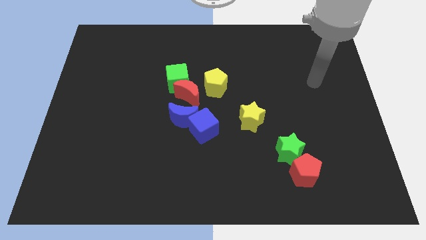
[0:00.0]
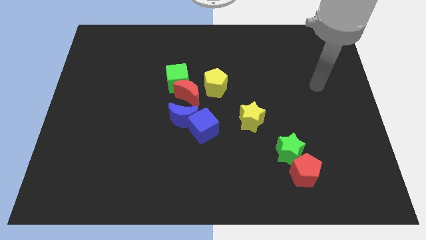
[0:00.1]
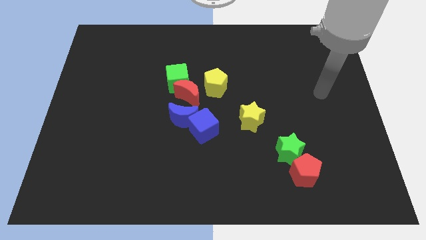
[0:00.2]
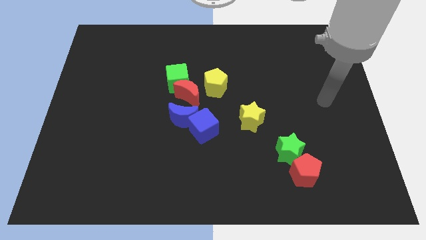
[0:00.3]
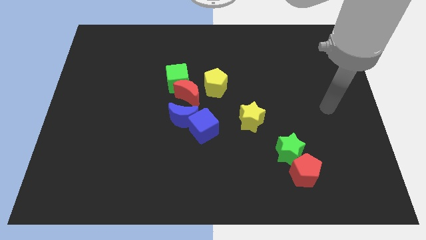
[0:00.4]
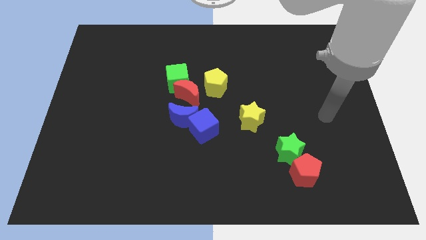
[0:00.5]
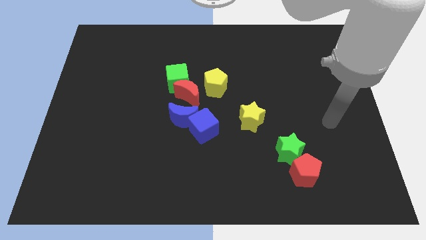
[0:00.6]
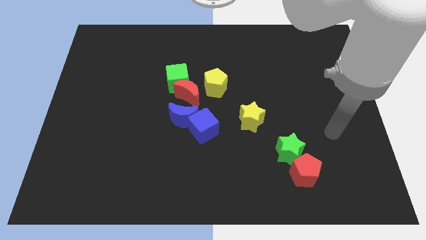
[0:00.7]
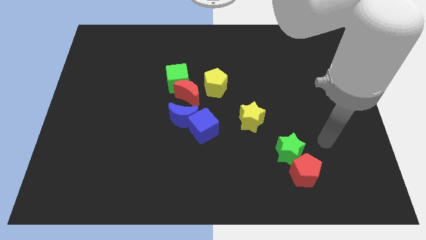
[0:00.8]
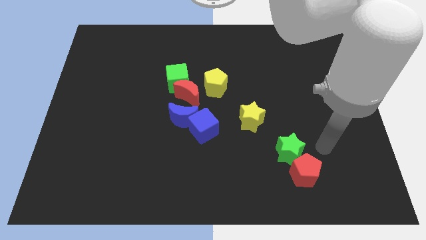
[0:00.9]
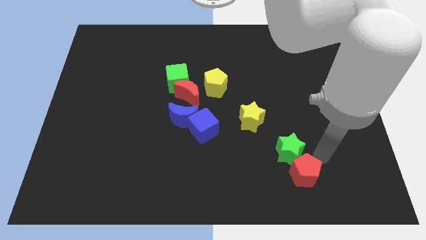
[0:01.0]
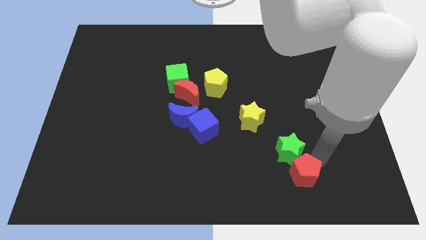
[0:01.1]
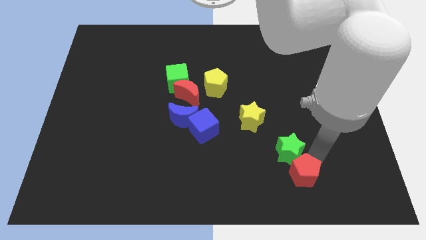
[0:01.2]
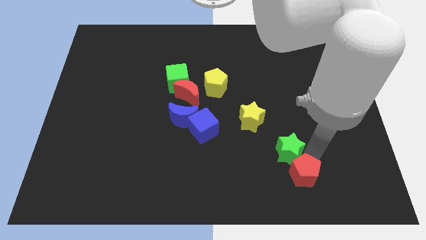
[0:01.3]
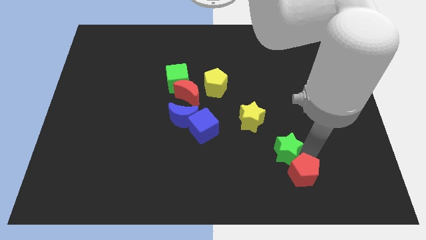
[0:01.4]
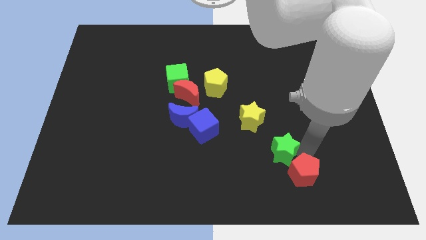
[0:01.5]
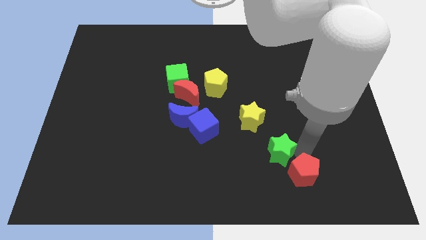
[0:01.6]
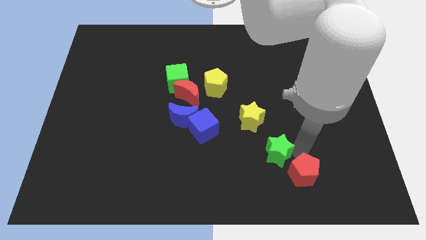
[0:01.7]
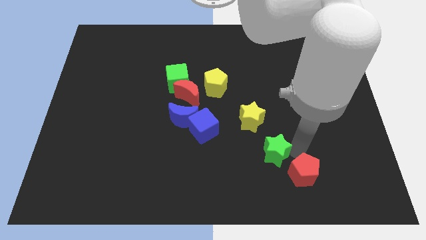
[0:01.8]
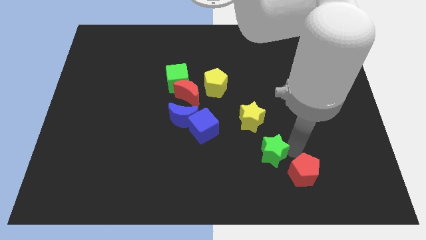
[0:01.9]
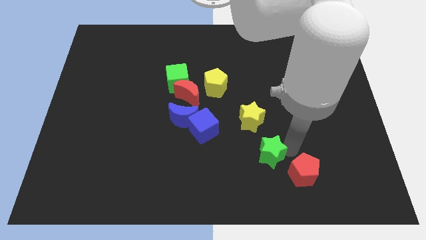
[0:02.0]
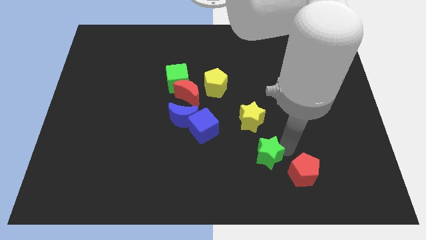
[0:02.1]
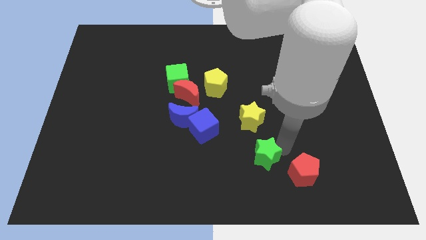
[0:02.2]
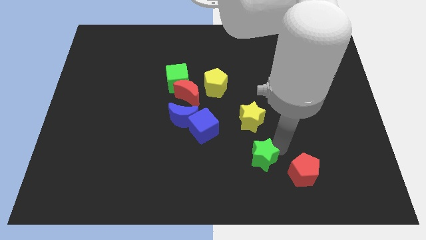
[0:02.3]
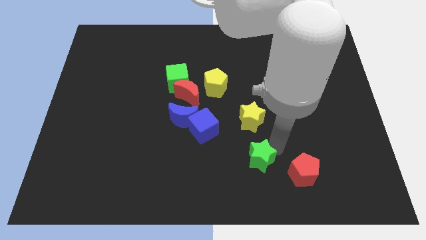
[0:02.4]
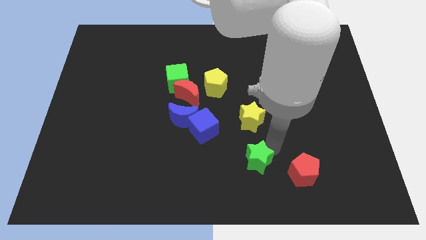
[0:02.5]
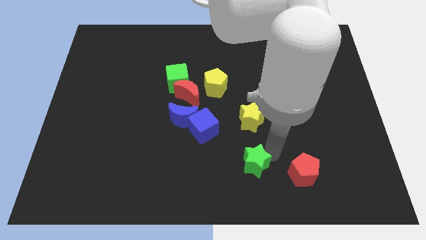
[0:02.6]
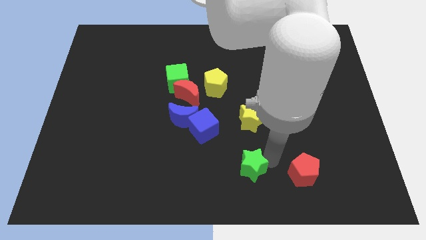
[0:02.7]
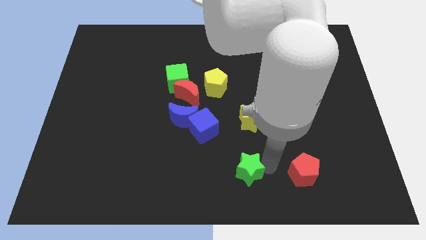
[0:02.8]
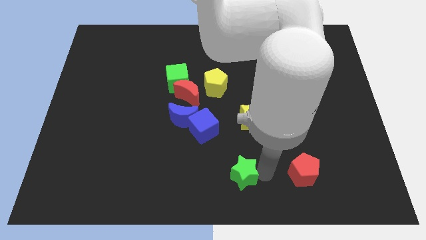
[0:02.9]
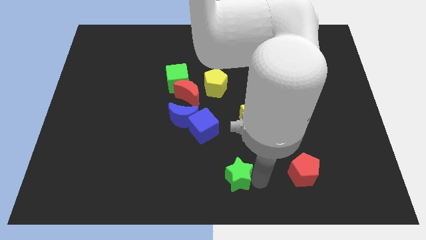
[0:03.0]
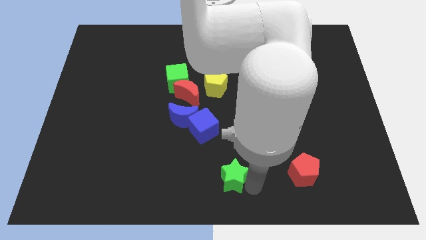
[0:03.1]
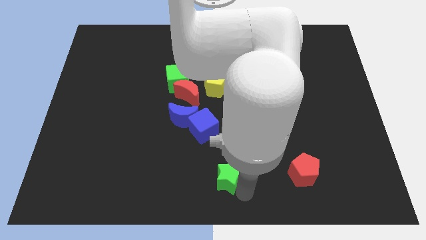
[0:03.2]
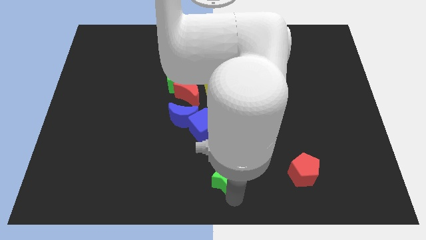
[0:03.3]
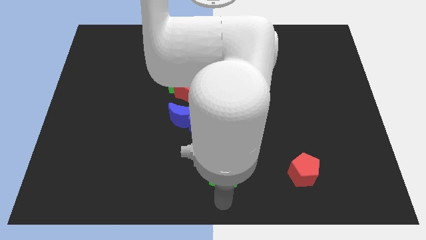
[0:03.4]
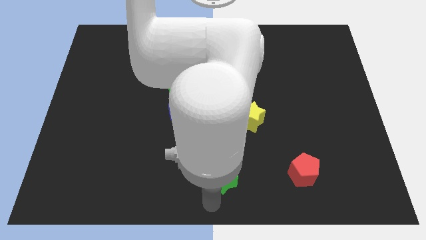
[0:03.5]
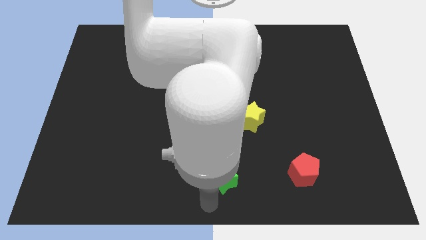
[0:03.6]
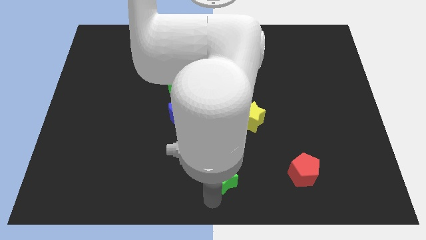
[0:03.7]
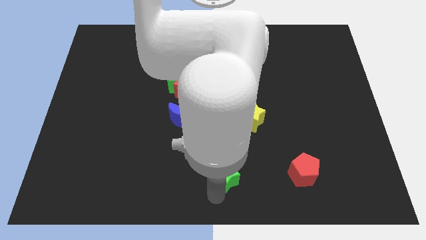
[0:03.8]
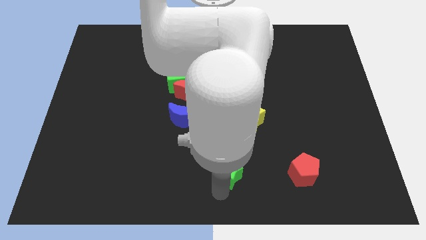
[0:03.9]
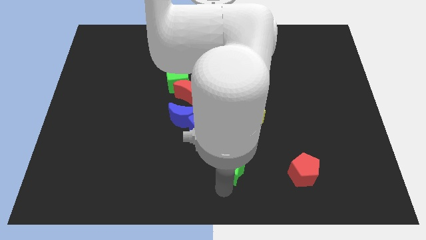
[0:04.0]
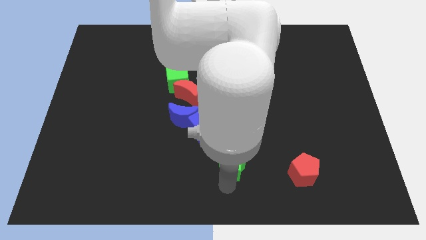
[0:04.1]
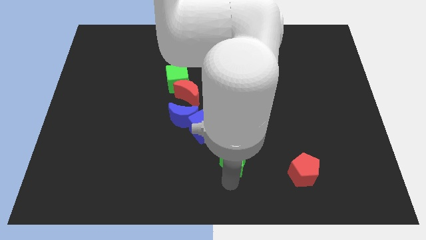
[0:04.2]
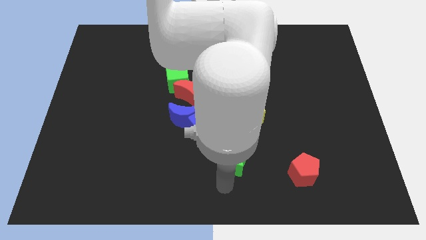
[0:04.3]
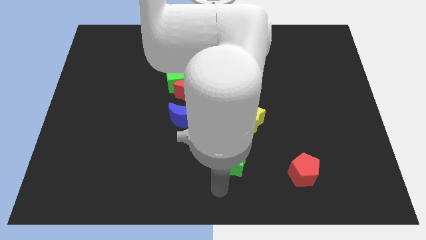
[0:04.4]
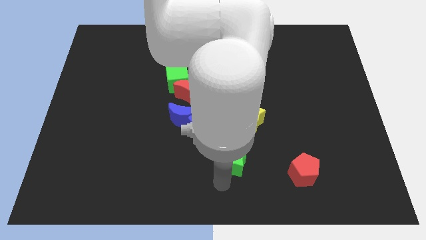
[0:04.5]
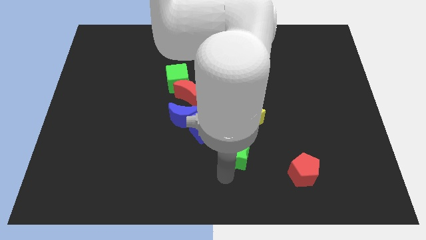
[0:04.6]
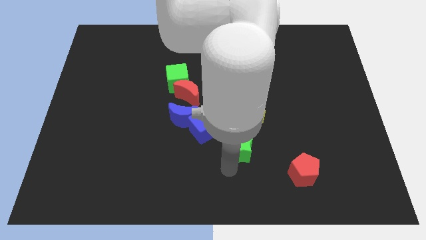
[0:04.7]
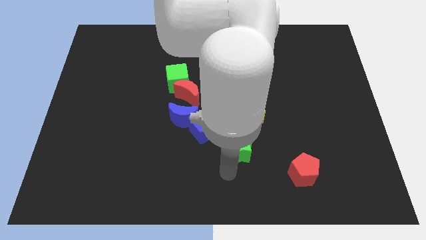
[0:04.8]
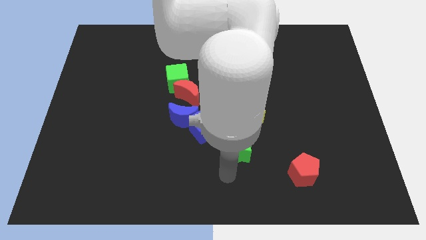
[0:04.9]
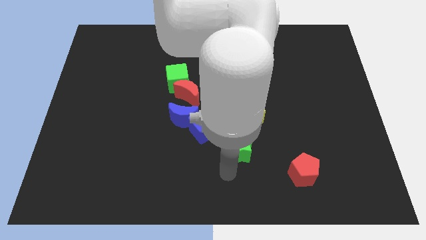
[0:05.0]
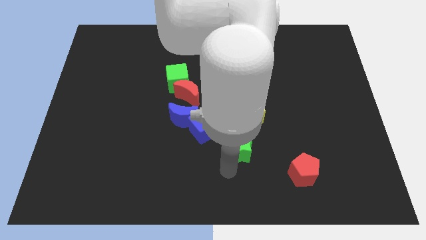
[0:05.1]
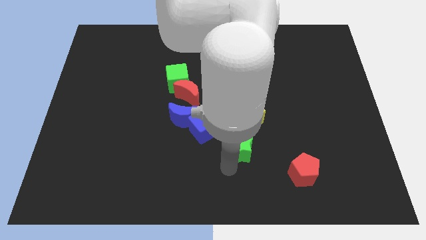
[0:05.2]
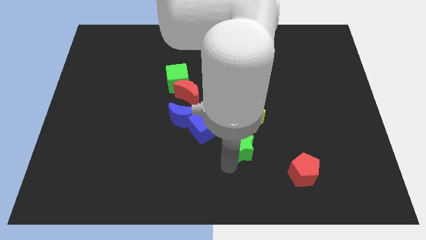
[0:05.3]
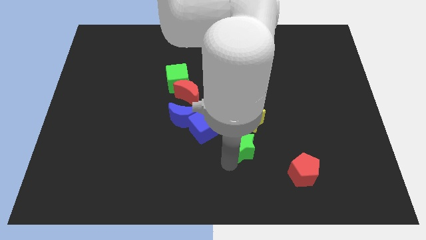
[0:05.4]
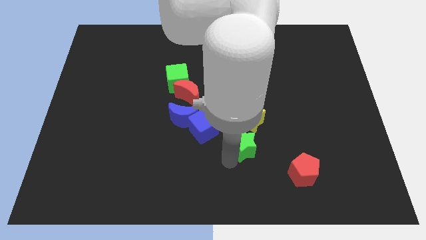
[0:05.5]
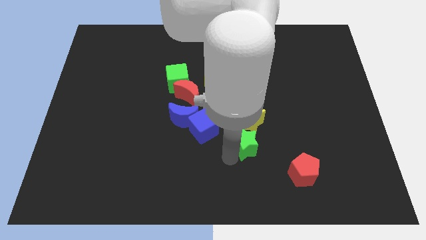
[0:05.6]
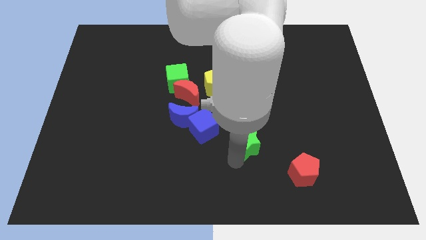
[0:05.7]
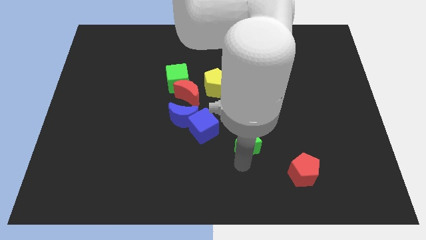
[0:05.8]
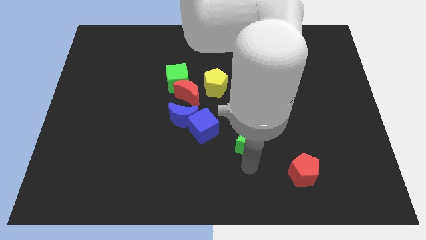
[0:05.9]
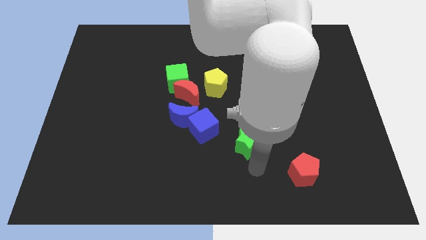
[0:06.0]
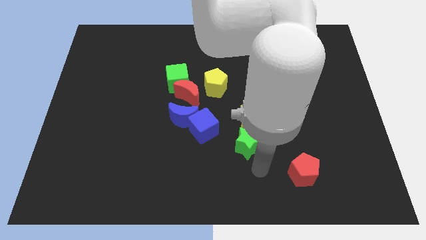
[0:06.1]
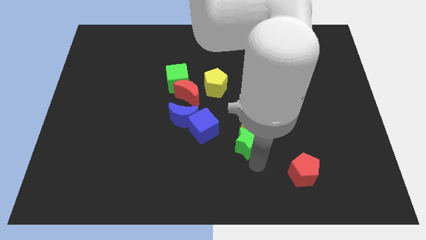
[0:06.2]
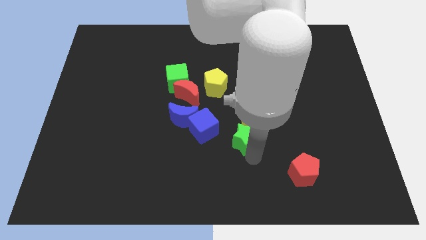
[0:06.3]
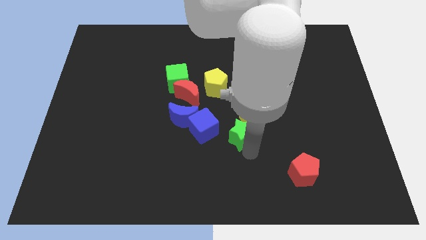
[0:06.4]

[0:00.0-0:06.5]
slide the green star to the center of the board
